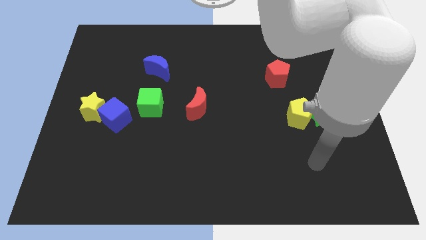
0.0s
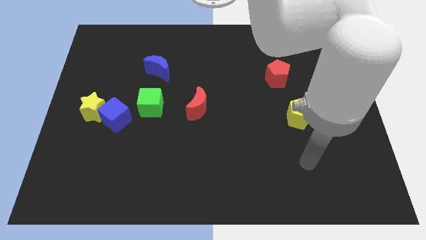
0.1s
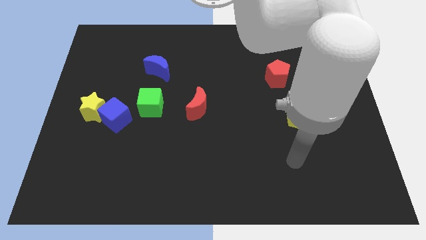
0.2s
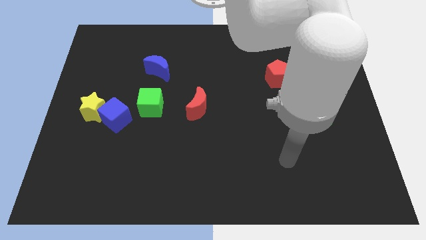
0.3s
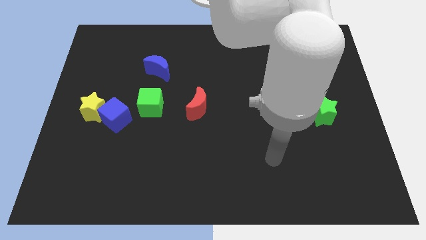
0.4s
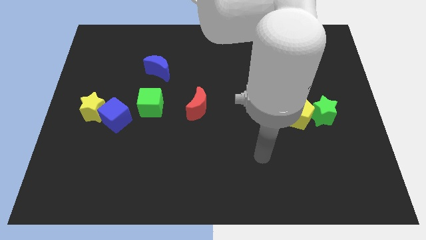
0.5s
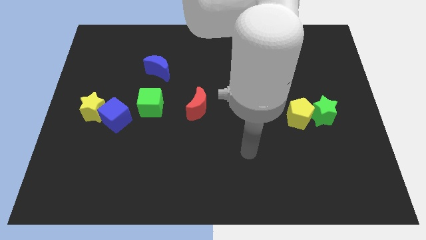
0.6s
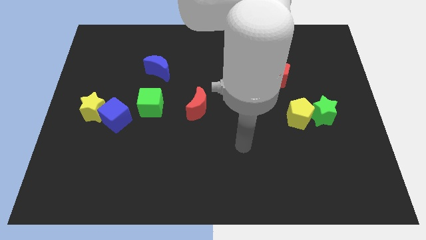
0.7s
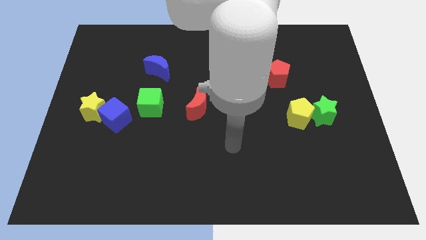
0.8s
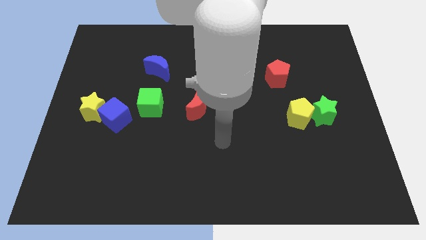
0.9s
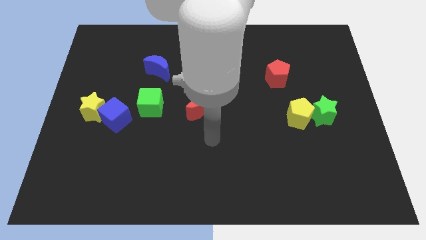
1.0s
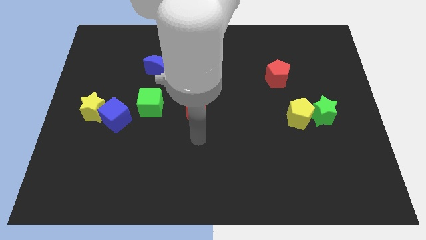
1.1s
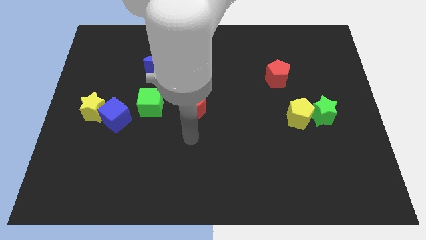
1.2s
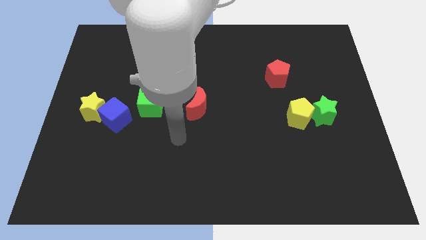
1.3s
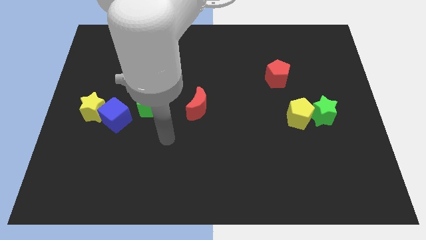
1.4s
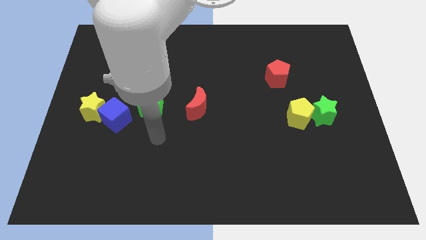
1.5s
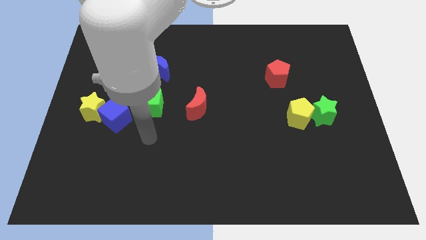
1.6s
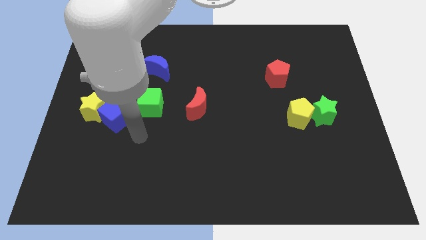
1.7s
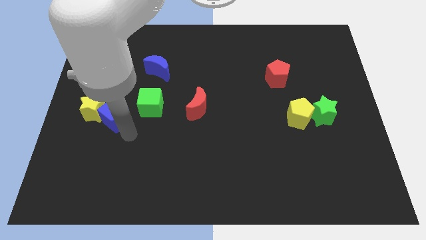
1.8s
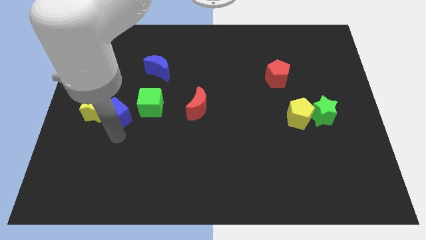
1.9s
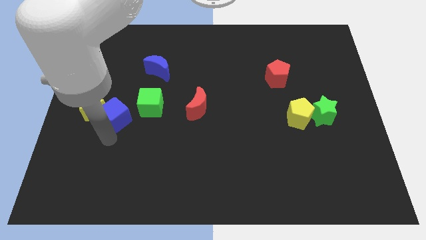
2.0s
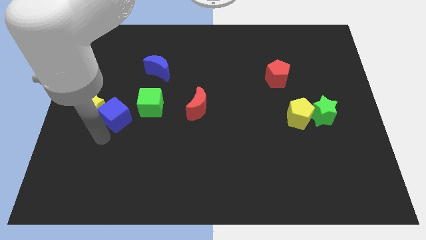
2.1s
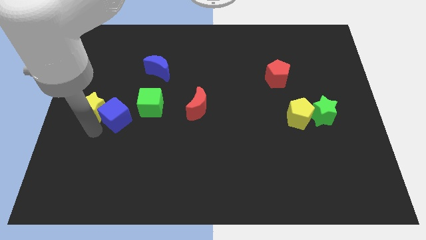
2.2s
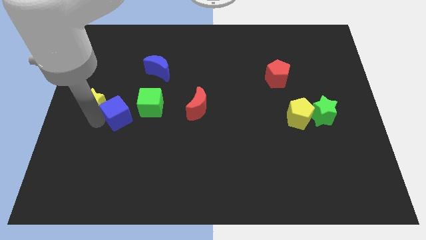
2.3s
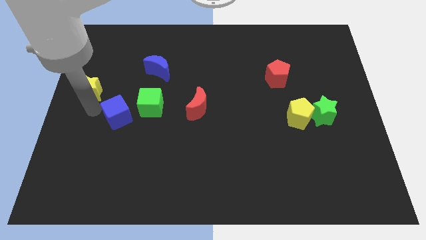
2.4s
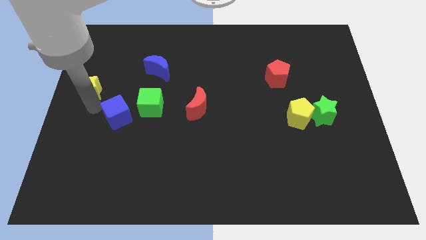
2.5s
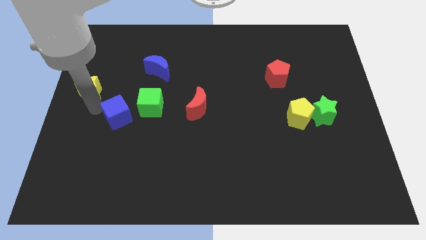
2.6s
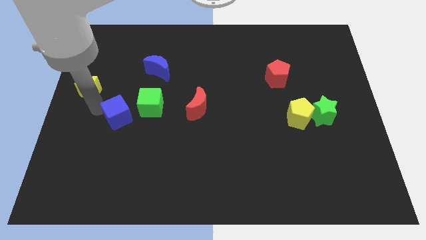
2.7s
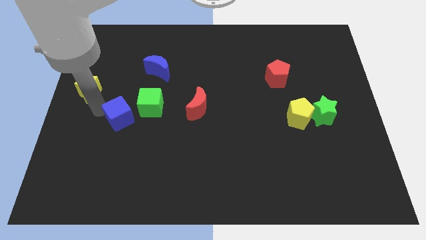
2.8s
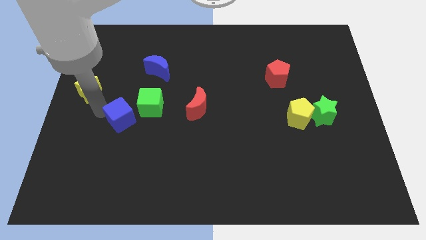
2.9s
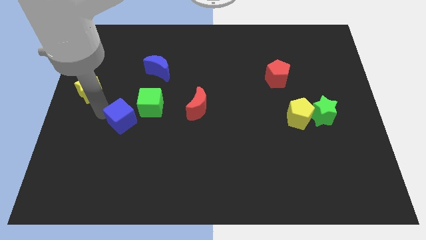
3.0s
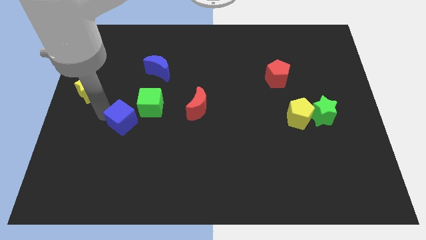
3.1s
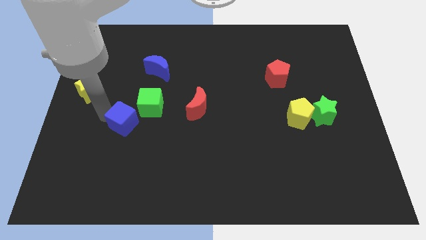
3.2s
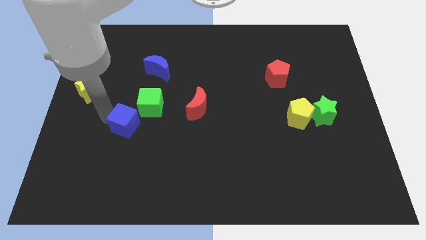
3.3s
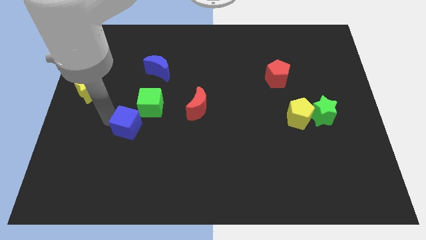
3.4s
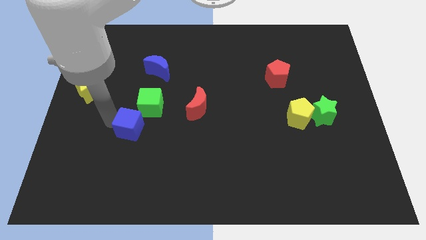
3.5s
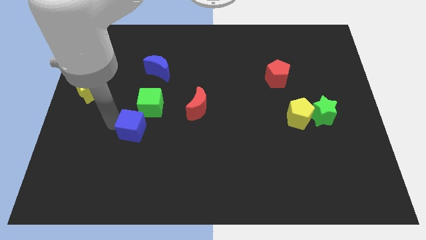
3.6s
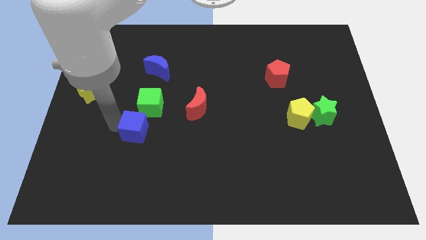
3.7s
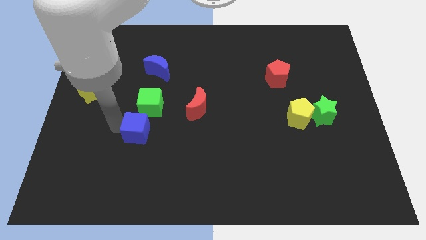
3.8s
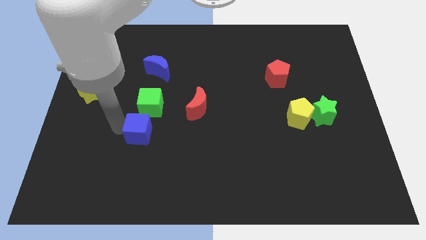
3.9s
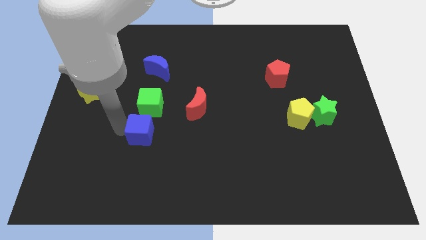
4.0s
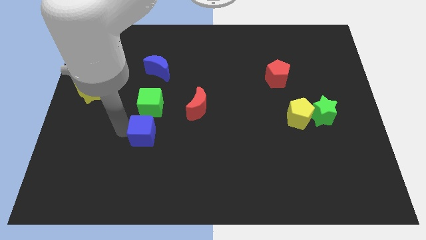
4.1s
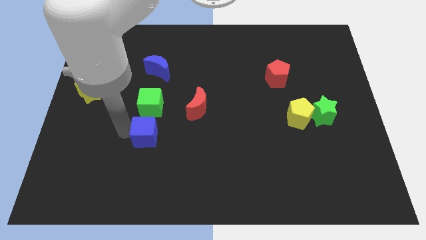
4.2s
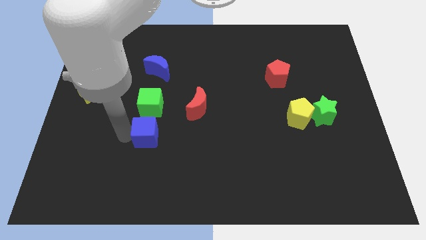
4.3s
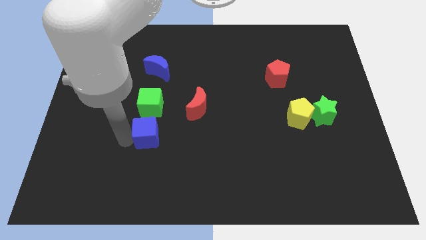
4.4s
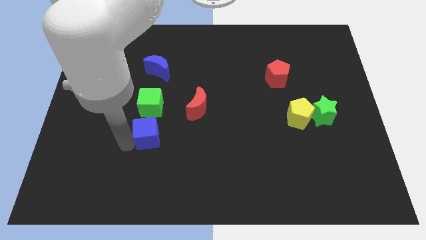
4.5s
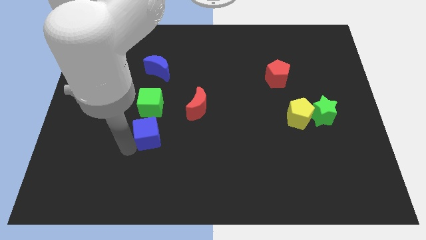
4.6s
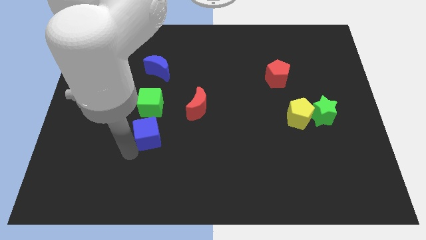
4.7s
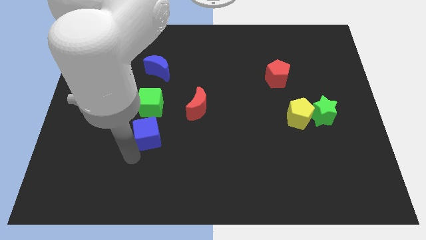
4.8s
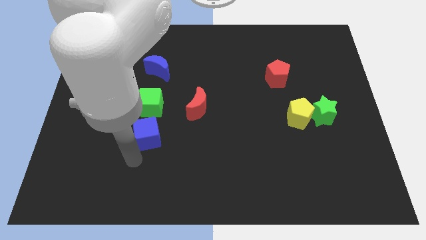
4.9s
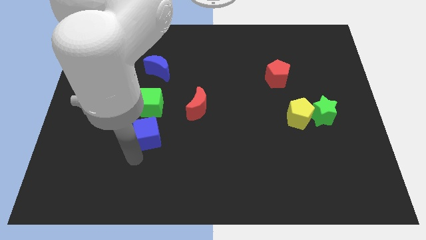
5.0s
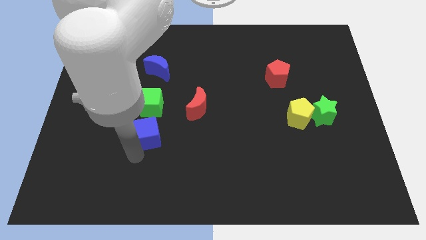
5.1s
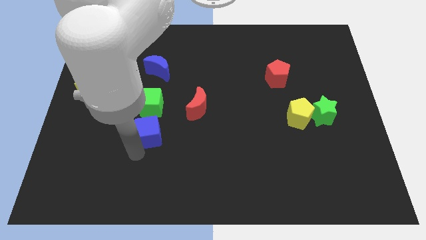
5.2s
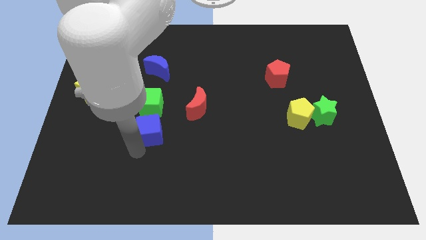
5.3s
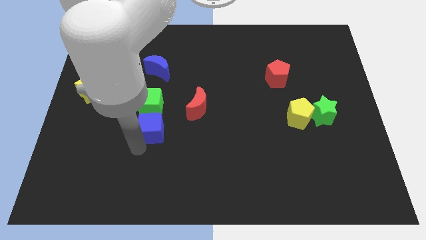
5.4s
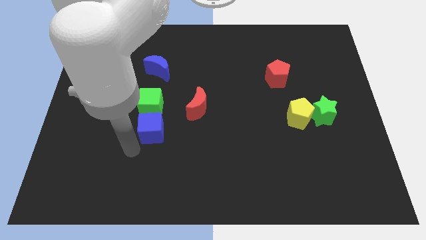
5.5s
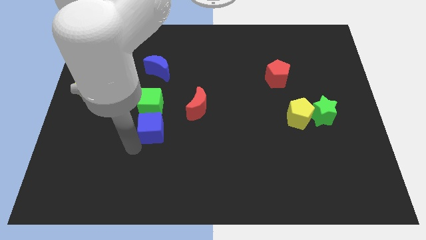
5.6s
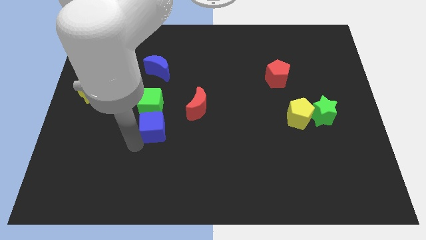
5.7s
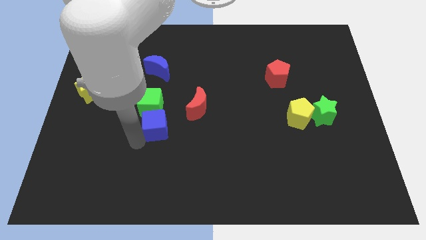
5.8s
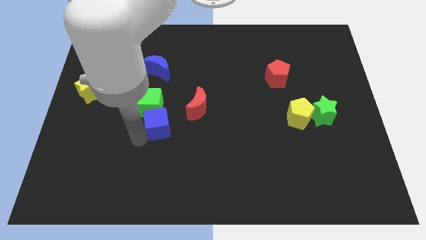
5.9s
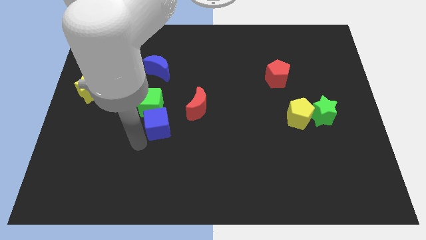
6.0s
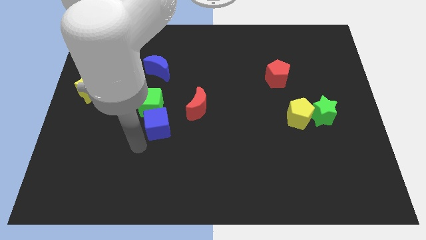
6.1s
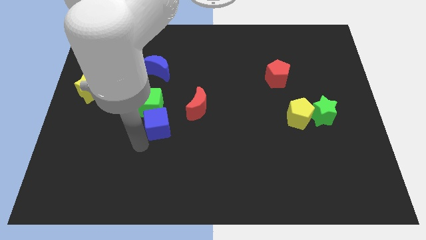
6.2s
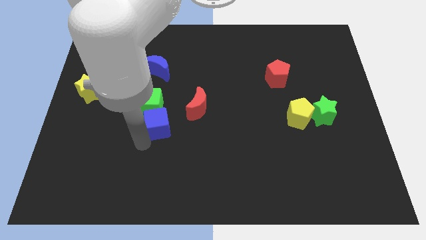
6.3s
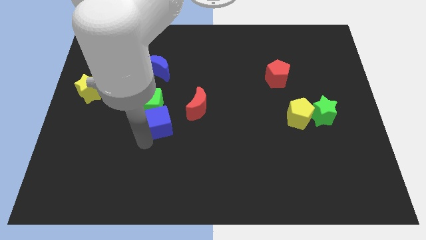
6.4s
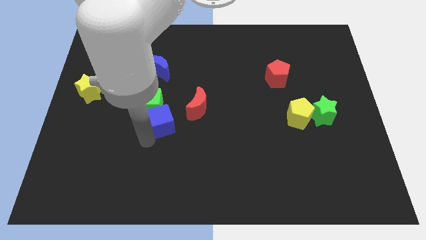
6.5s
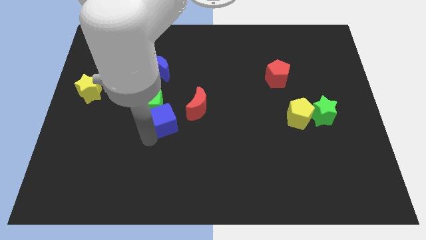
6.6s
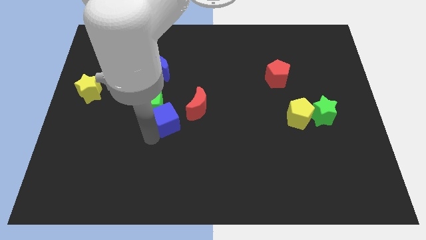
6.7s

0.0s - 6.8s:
push the blue cube to the center of the board
